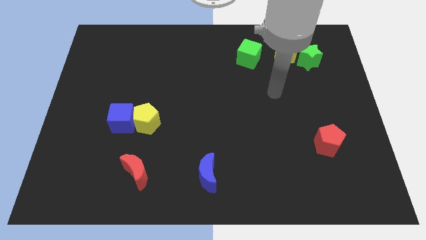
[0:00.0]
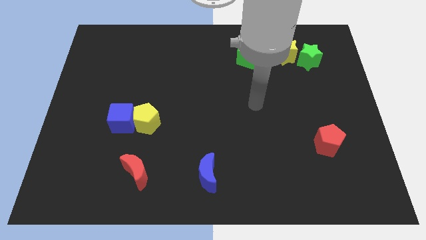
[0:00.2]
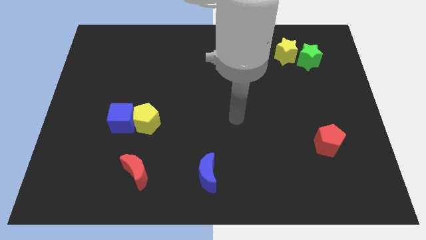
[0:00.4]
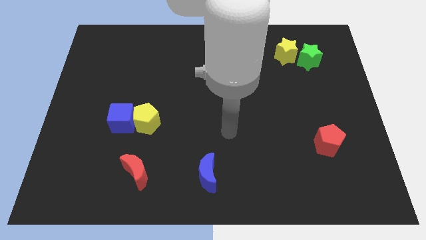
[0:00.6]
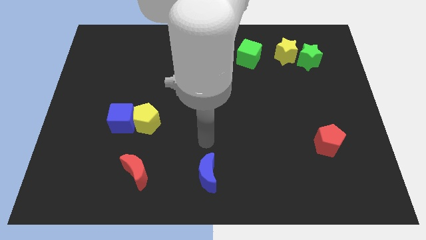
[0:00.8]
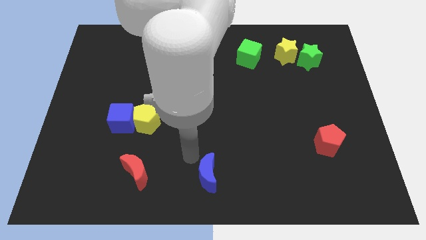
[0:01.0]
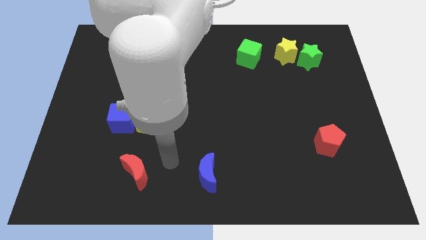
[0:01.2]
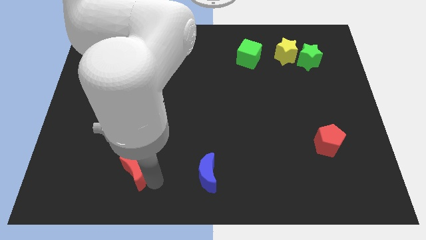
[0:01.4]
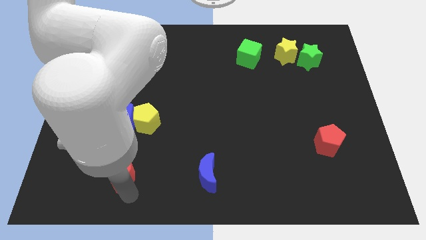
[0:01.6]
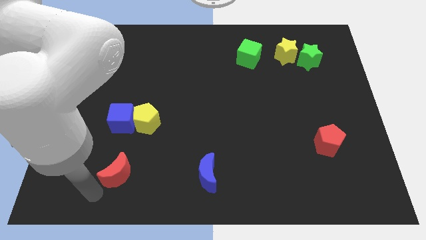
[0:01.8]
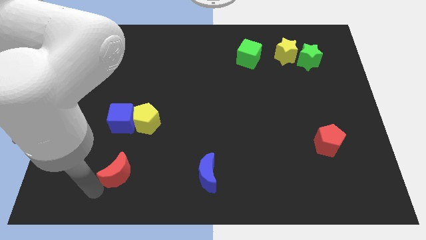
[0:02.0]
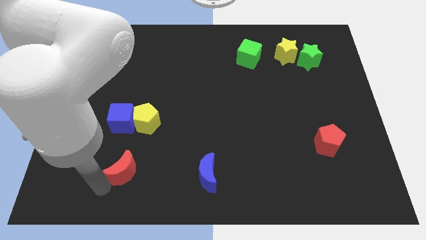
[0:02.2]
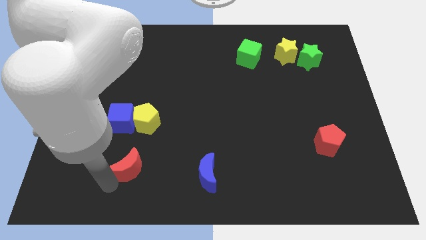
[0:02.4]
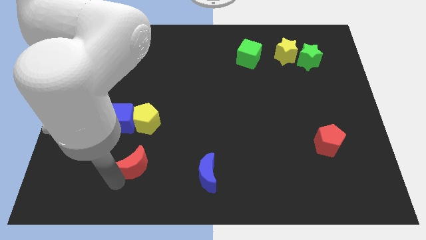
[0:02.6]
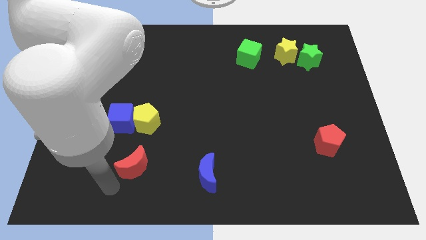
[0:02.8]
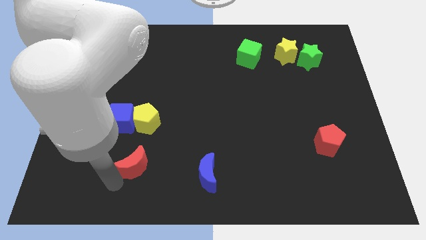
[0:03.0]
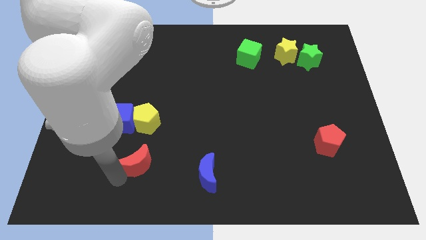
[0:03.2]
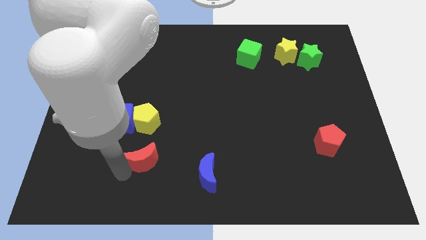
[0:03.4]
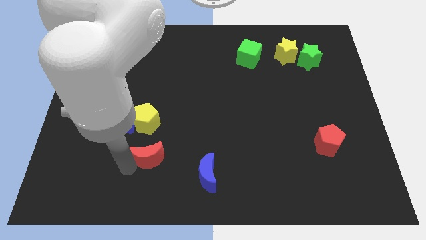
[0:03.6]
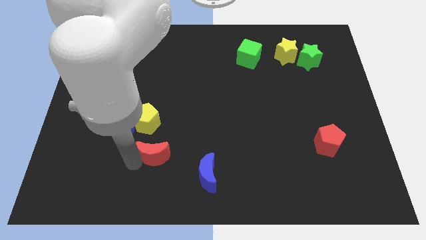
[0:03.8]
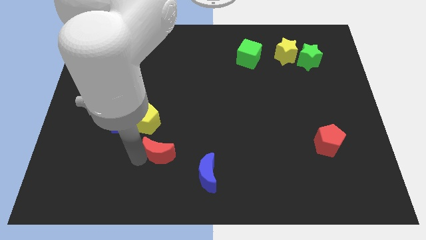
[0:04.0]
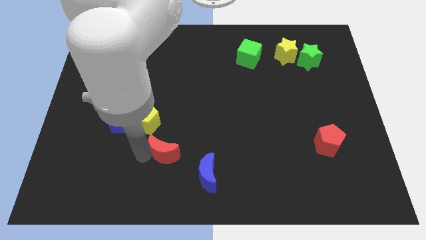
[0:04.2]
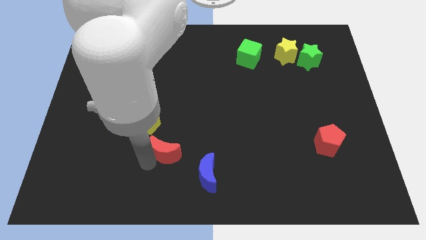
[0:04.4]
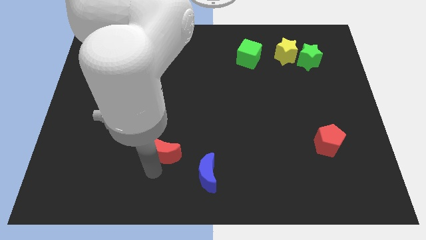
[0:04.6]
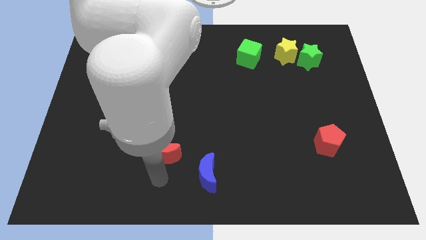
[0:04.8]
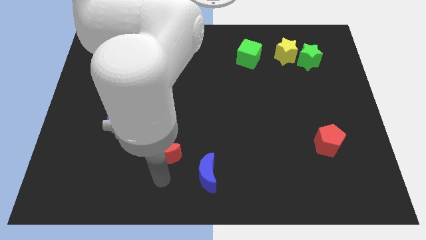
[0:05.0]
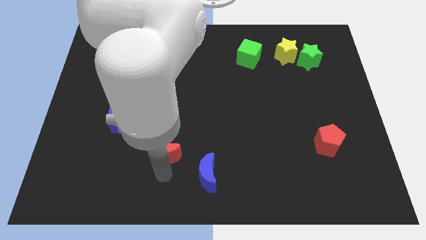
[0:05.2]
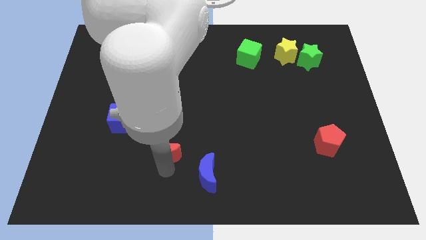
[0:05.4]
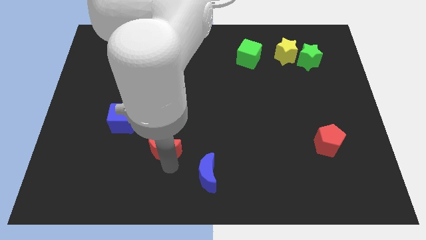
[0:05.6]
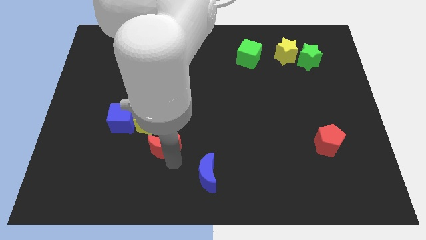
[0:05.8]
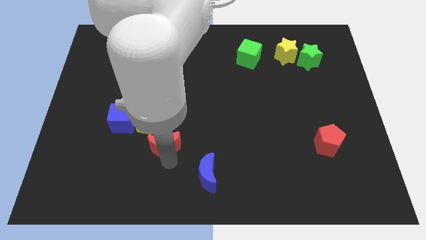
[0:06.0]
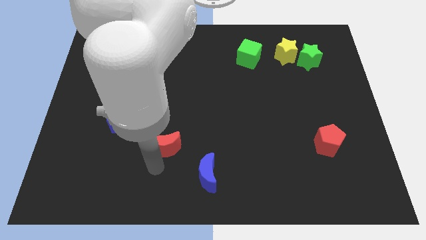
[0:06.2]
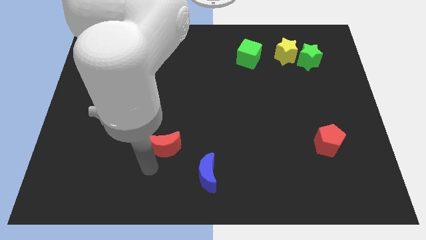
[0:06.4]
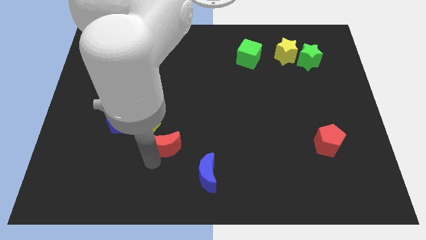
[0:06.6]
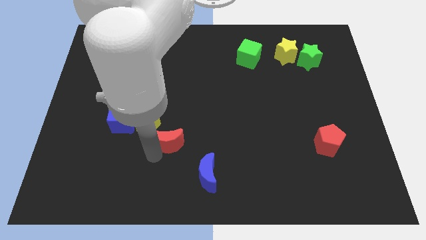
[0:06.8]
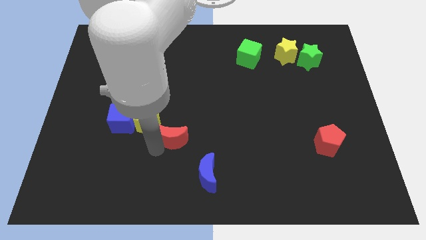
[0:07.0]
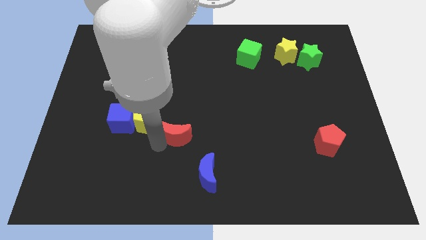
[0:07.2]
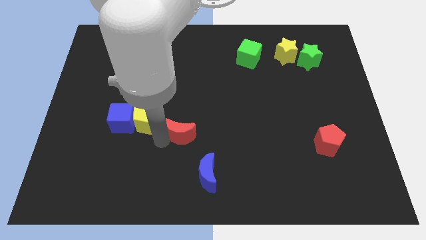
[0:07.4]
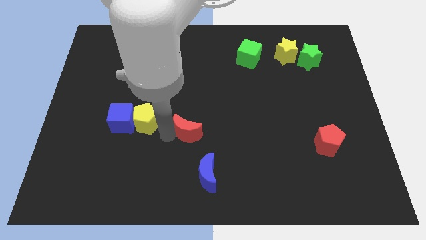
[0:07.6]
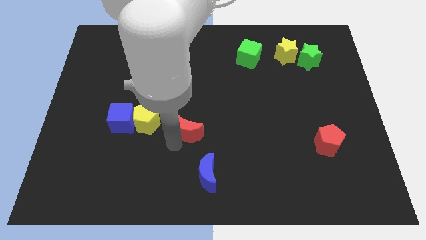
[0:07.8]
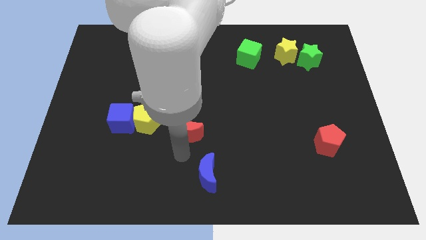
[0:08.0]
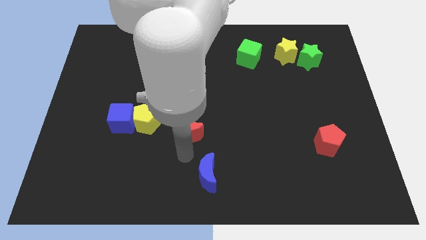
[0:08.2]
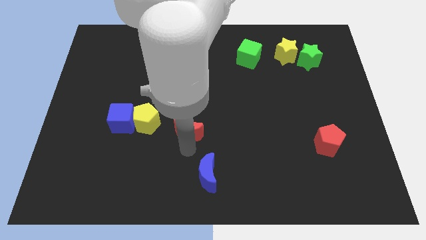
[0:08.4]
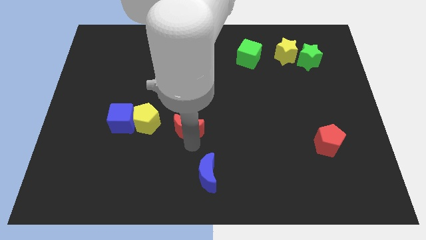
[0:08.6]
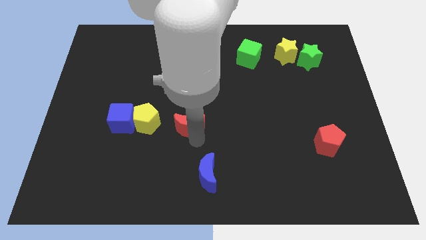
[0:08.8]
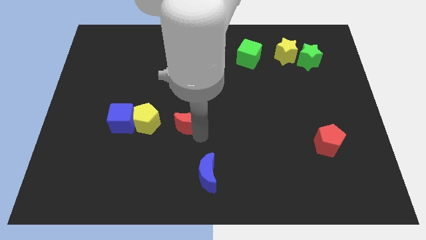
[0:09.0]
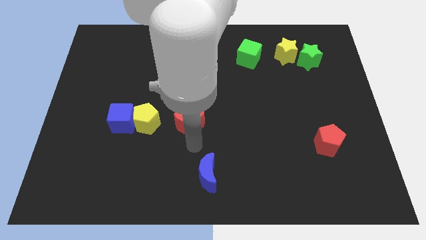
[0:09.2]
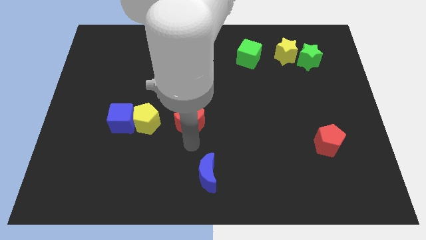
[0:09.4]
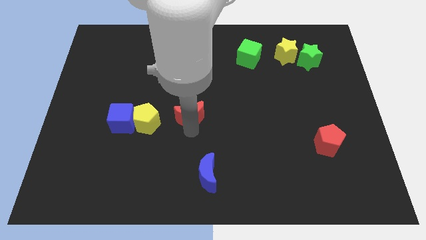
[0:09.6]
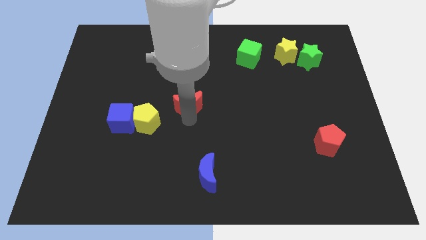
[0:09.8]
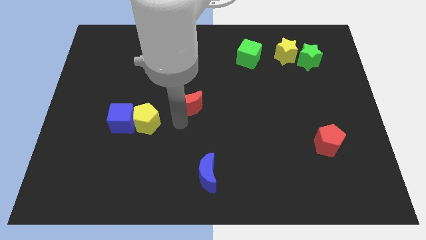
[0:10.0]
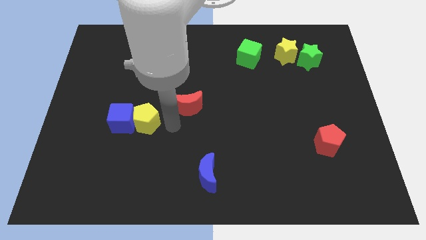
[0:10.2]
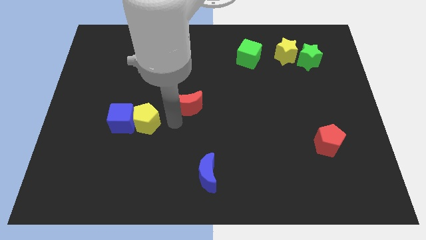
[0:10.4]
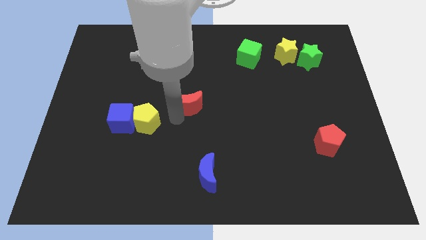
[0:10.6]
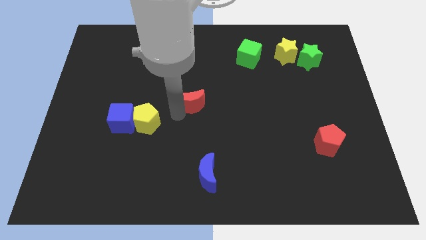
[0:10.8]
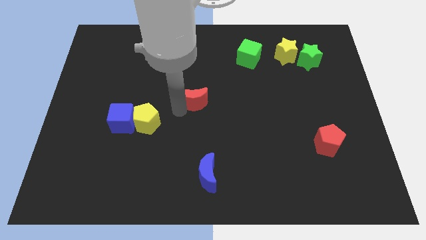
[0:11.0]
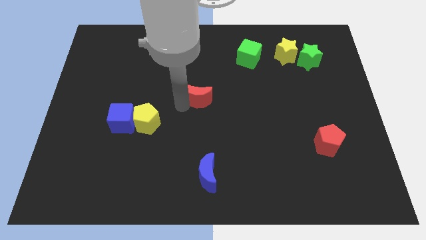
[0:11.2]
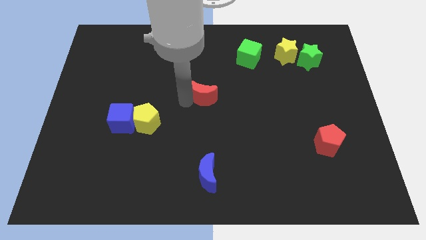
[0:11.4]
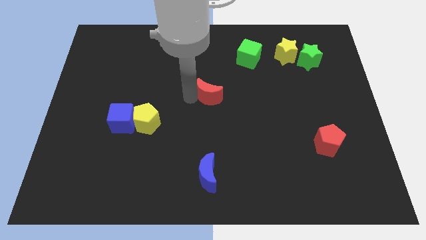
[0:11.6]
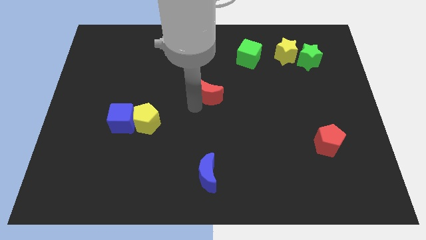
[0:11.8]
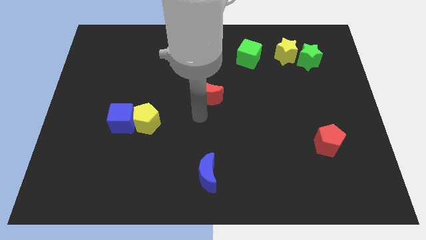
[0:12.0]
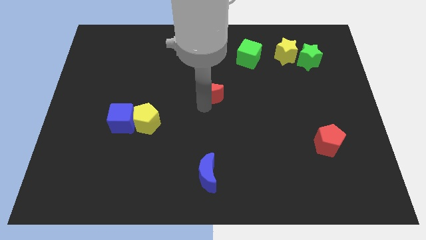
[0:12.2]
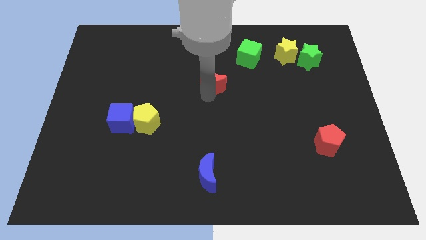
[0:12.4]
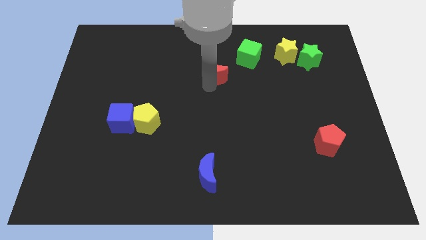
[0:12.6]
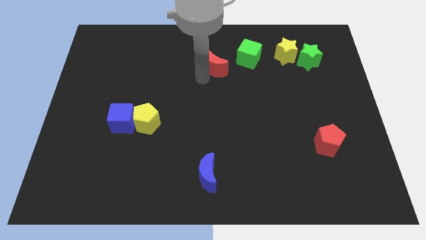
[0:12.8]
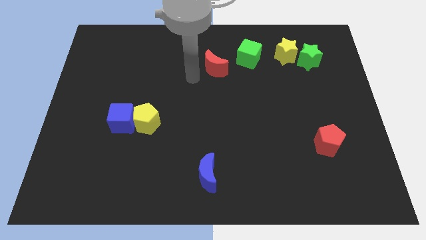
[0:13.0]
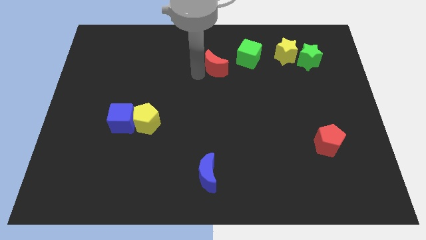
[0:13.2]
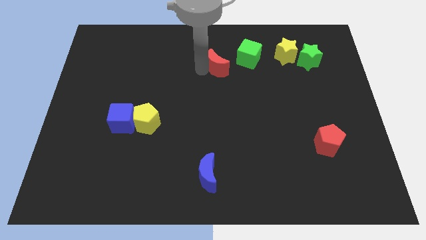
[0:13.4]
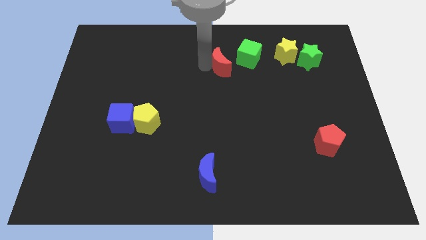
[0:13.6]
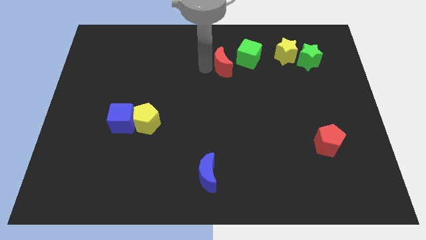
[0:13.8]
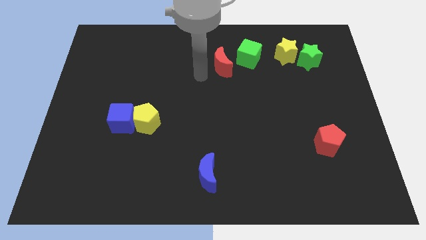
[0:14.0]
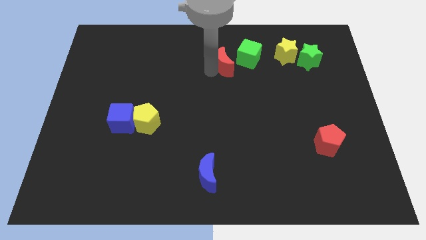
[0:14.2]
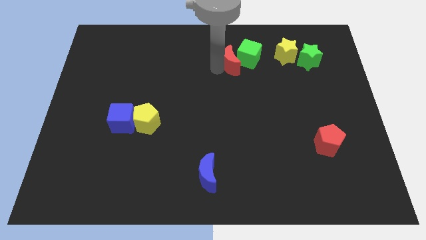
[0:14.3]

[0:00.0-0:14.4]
slide the red moon to the left of the yellow star

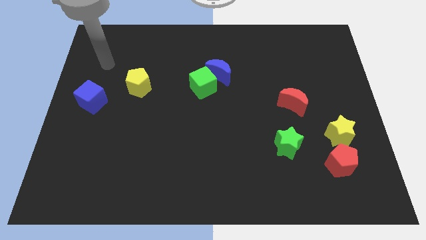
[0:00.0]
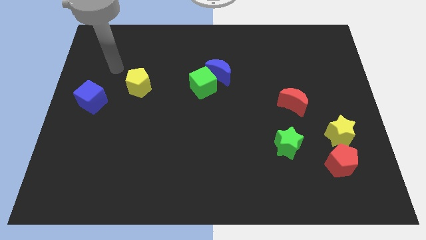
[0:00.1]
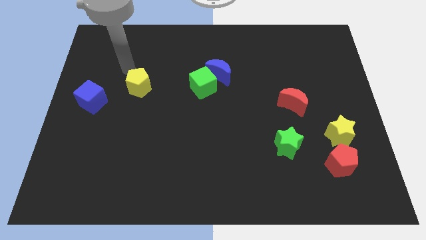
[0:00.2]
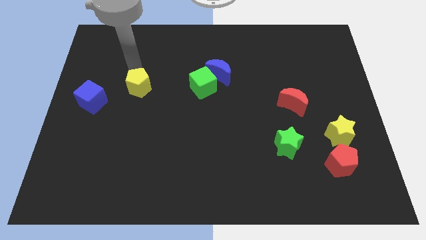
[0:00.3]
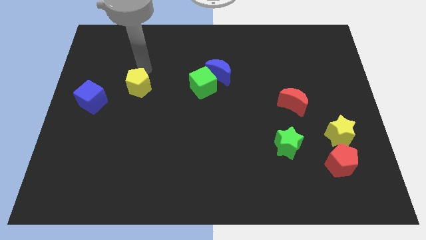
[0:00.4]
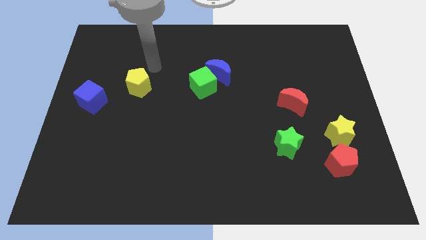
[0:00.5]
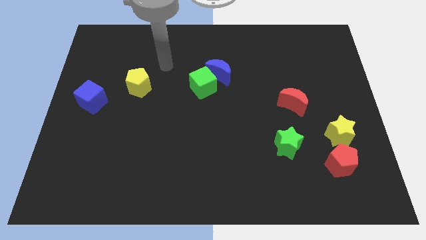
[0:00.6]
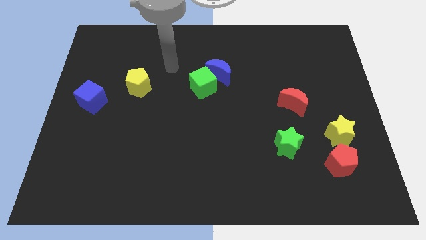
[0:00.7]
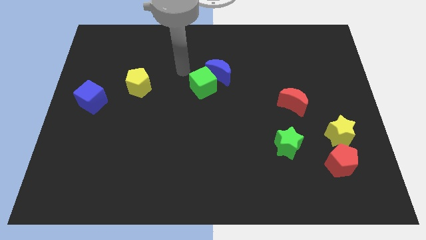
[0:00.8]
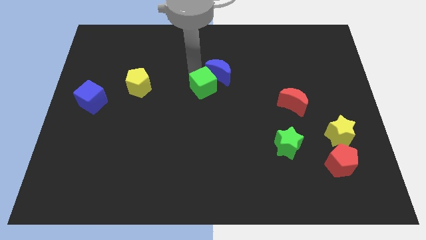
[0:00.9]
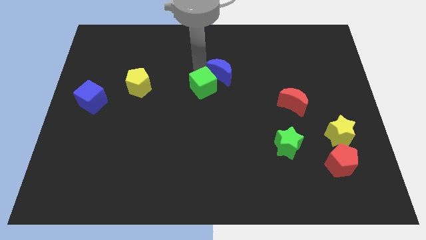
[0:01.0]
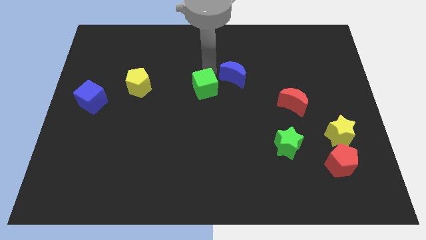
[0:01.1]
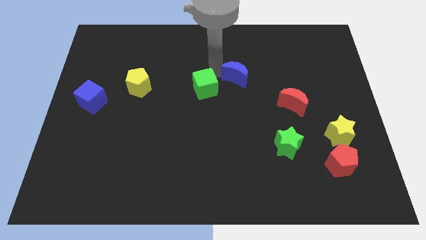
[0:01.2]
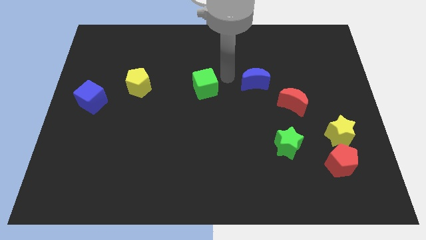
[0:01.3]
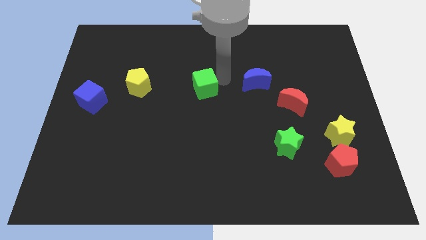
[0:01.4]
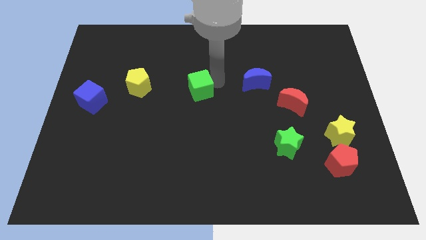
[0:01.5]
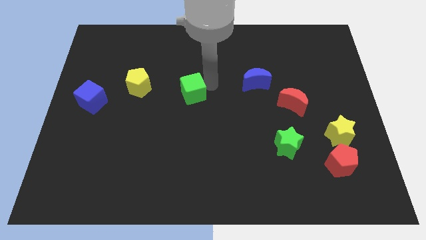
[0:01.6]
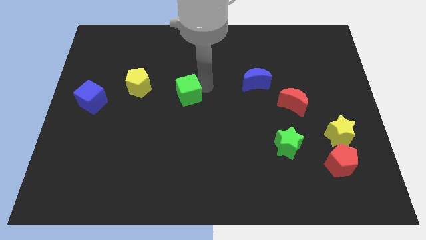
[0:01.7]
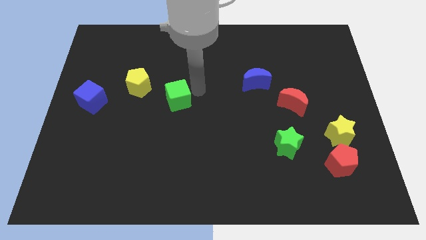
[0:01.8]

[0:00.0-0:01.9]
push the green cube to the bottom right side of the yellow pentagon
